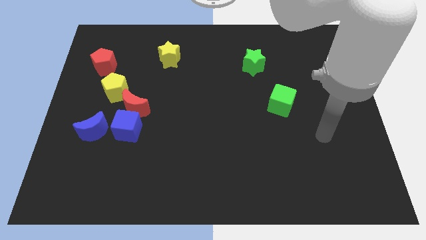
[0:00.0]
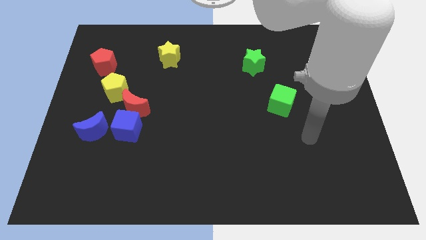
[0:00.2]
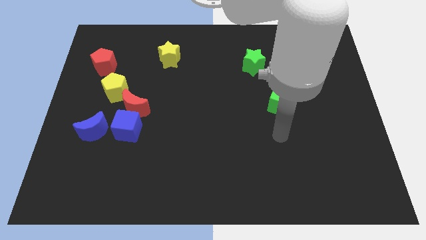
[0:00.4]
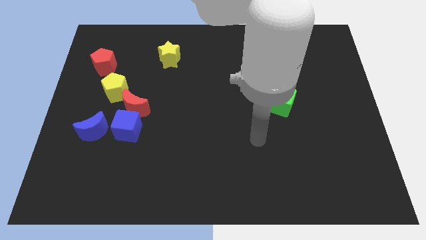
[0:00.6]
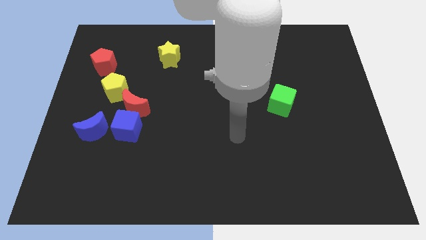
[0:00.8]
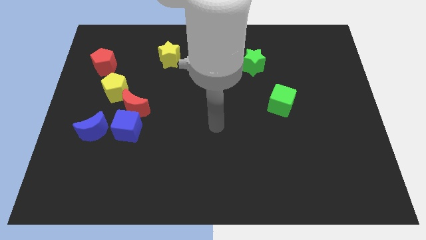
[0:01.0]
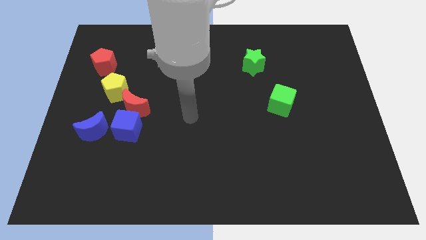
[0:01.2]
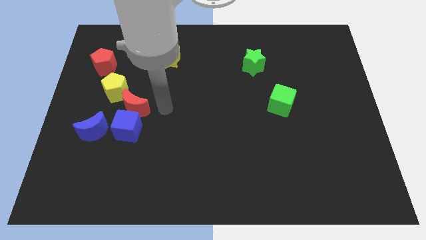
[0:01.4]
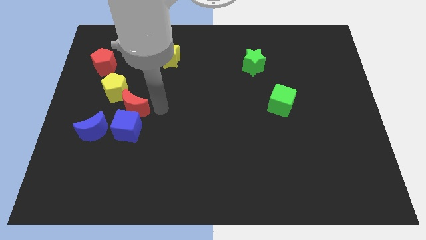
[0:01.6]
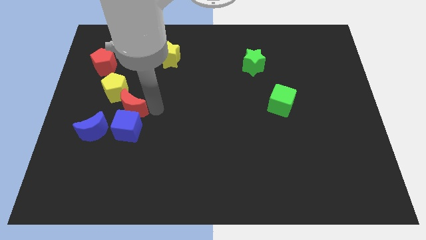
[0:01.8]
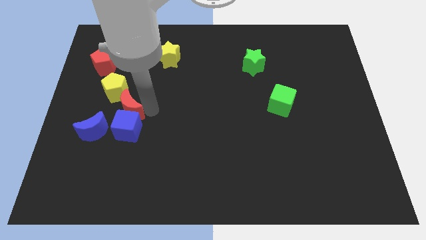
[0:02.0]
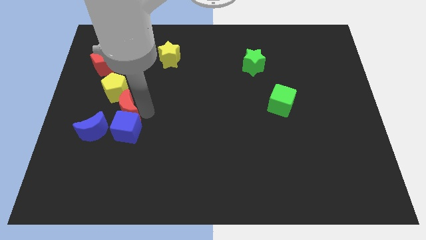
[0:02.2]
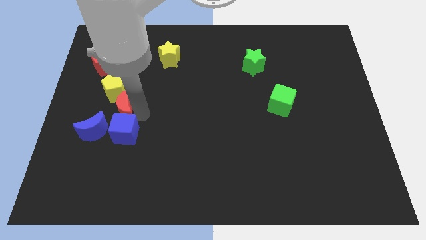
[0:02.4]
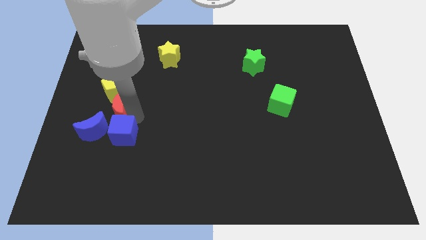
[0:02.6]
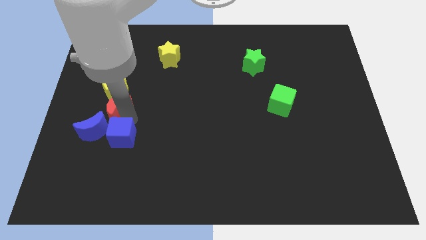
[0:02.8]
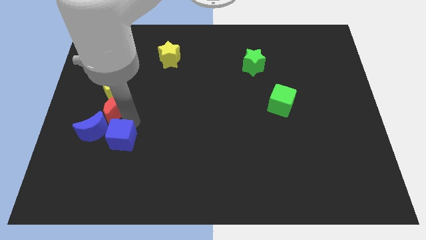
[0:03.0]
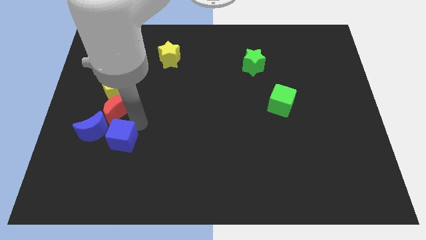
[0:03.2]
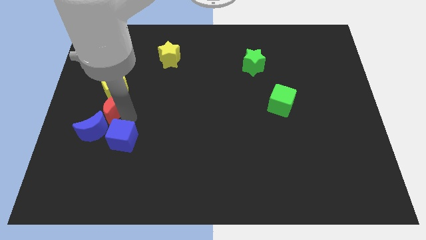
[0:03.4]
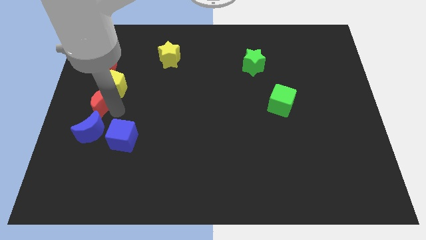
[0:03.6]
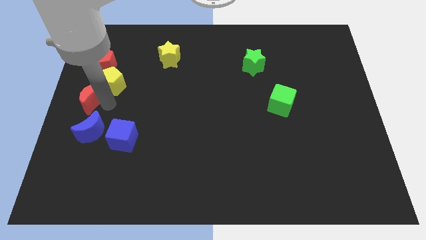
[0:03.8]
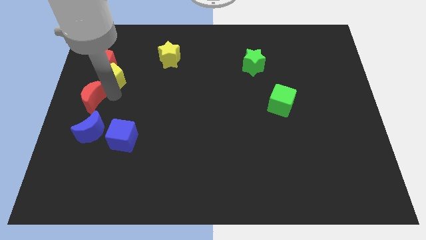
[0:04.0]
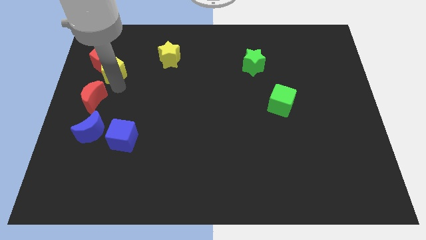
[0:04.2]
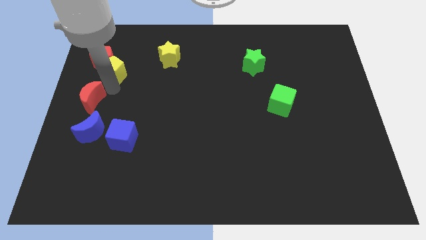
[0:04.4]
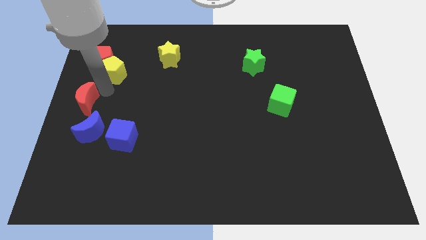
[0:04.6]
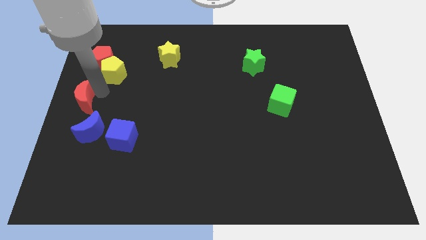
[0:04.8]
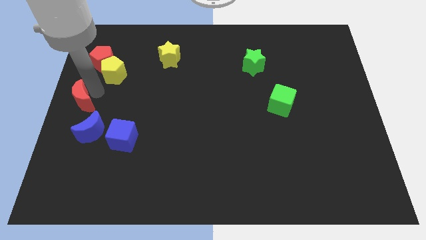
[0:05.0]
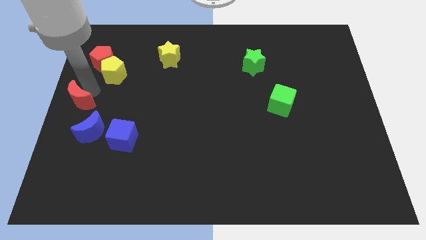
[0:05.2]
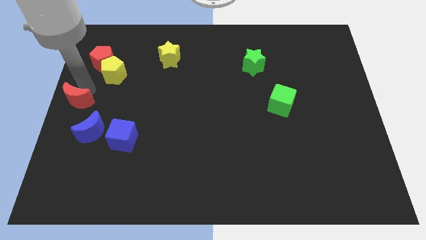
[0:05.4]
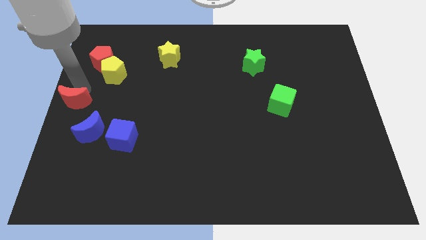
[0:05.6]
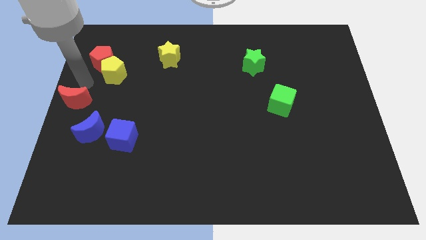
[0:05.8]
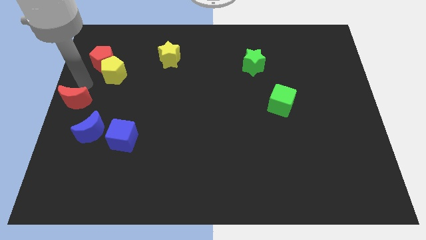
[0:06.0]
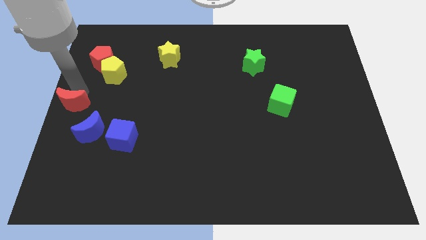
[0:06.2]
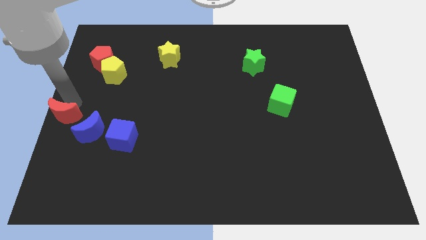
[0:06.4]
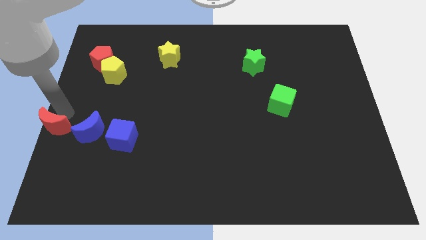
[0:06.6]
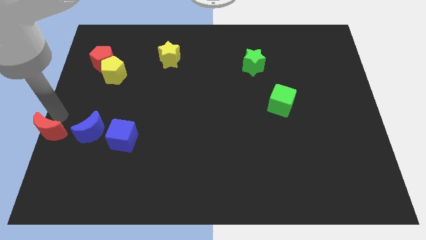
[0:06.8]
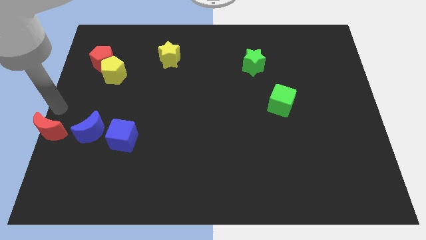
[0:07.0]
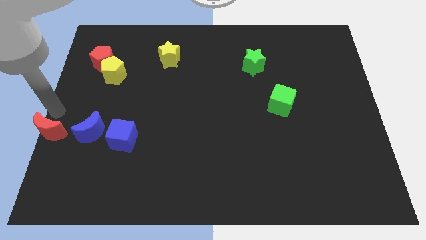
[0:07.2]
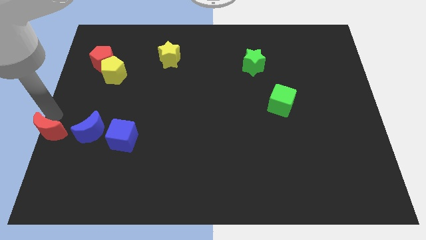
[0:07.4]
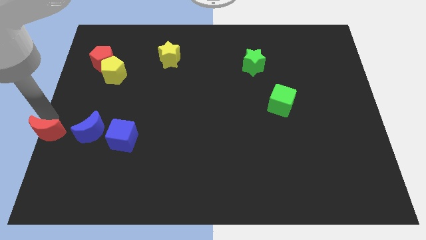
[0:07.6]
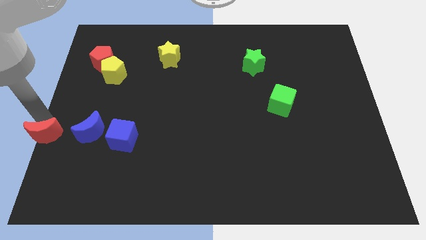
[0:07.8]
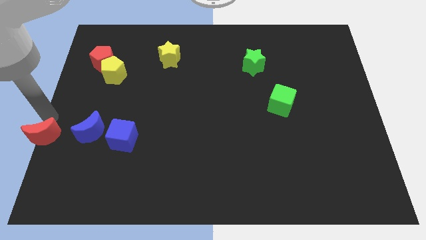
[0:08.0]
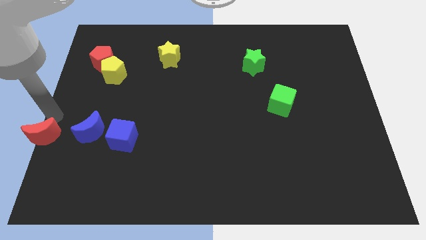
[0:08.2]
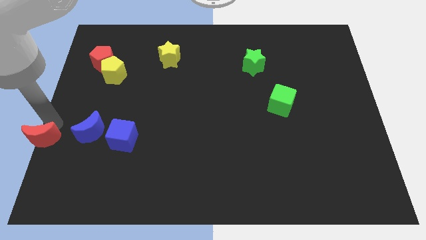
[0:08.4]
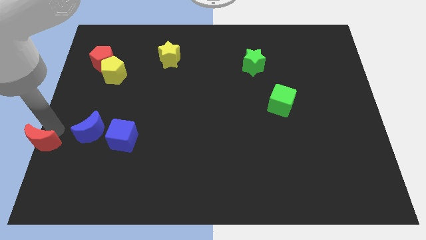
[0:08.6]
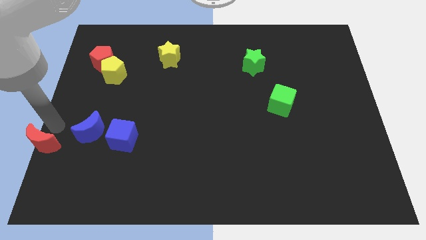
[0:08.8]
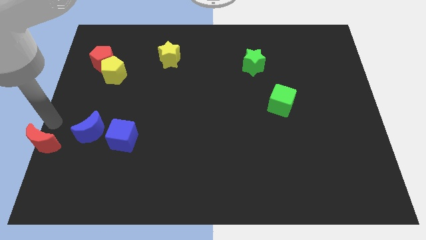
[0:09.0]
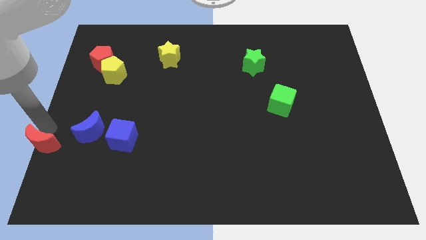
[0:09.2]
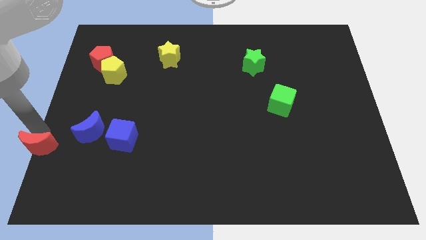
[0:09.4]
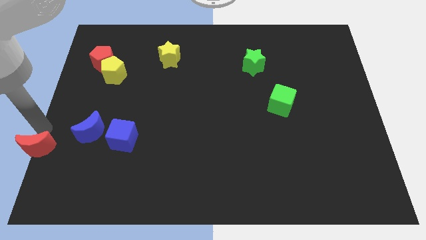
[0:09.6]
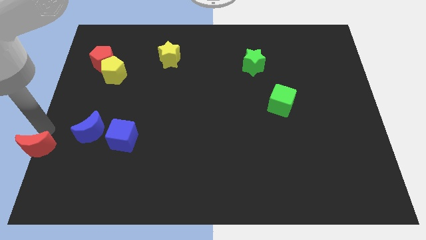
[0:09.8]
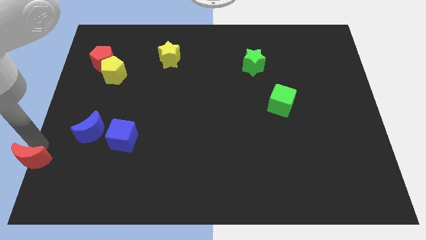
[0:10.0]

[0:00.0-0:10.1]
move the red moon to the bottom left corner

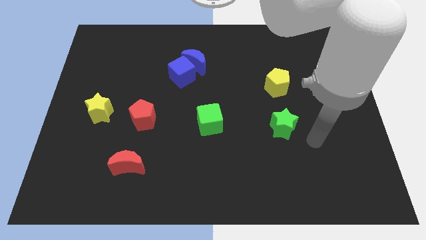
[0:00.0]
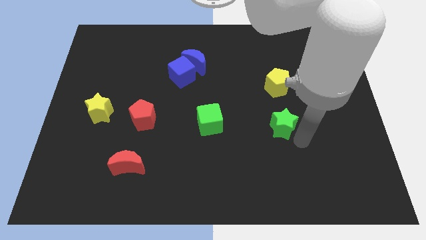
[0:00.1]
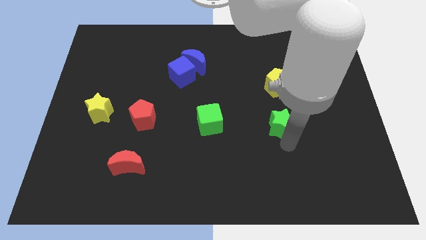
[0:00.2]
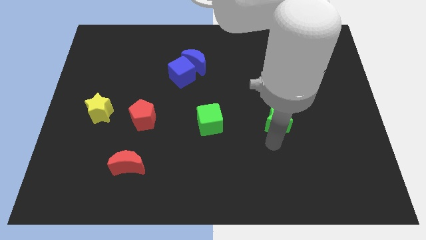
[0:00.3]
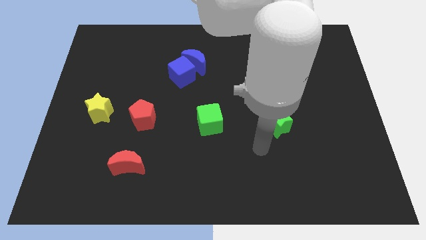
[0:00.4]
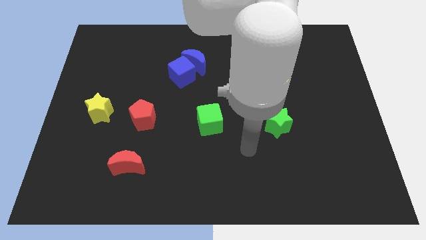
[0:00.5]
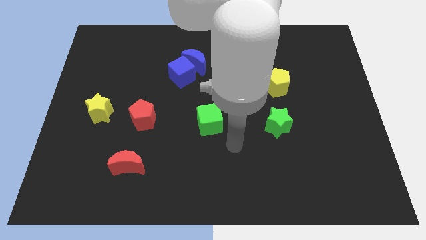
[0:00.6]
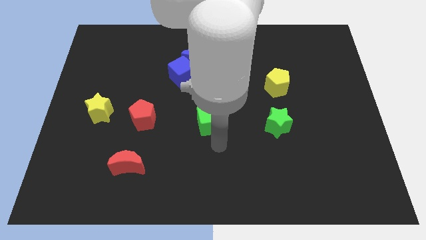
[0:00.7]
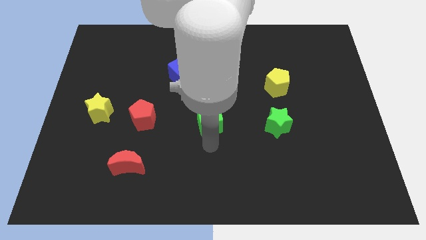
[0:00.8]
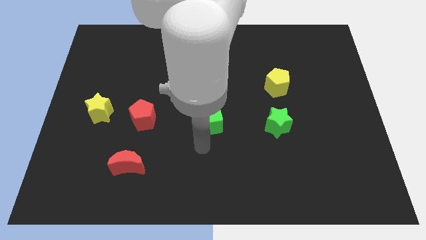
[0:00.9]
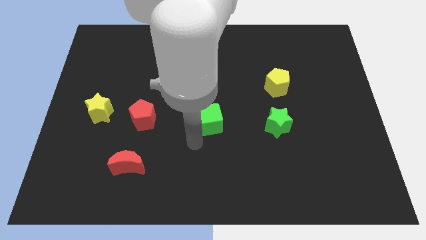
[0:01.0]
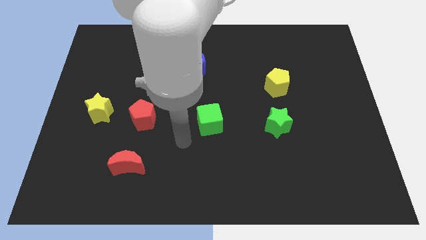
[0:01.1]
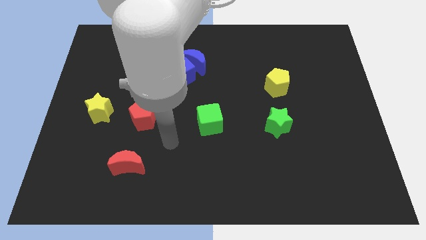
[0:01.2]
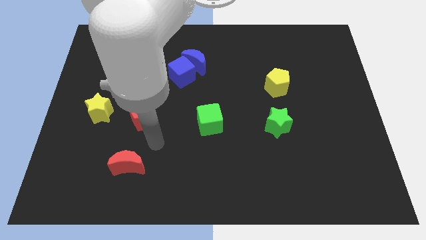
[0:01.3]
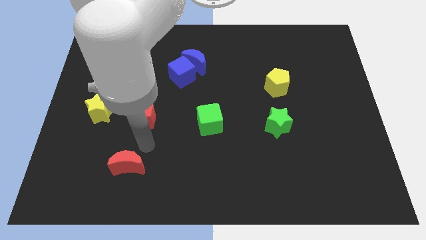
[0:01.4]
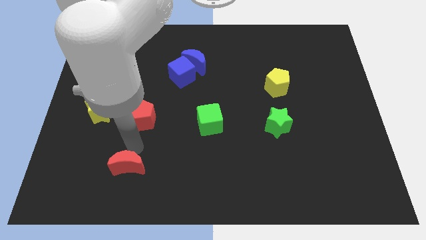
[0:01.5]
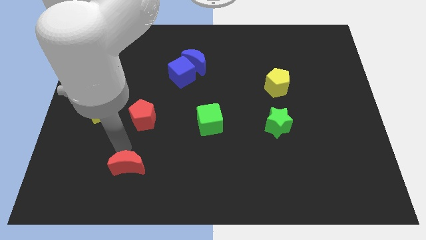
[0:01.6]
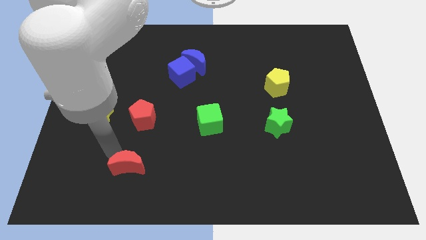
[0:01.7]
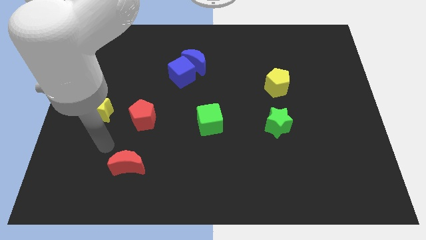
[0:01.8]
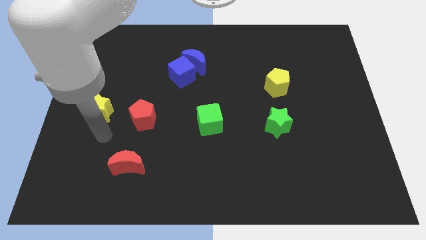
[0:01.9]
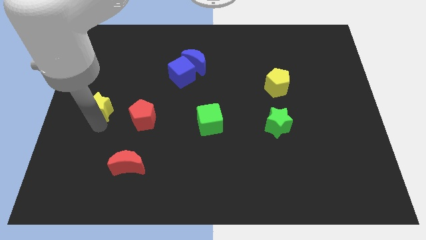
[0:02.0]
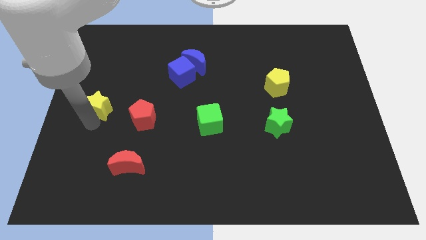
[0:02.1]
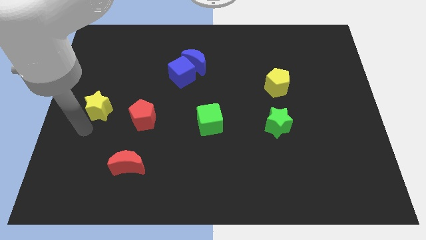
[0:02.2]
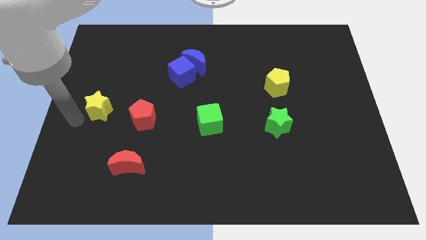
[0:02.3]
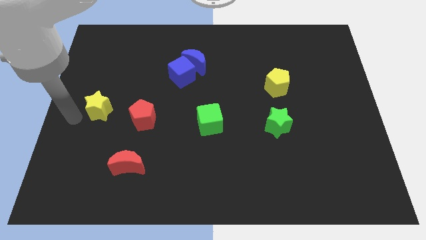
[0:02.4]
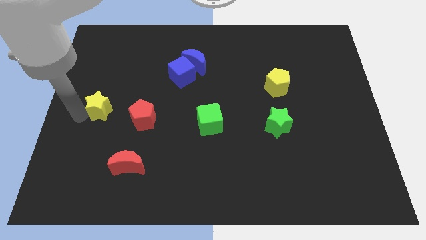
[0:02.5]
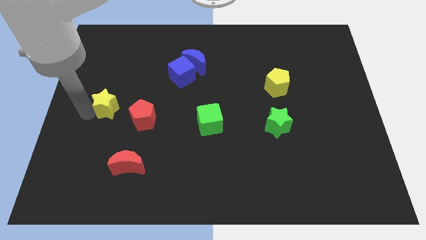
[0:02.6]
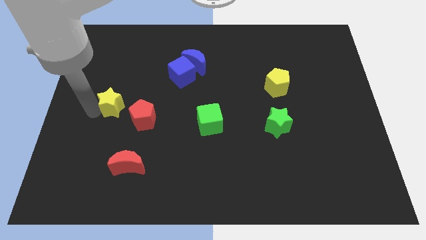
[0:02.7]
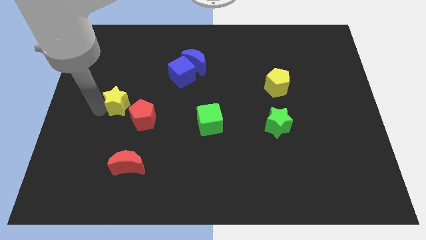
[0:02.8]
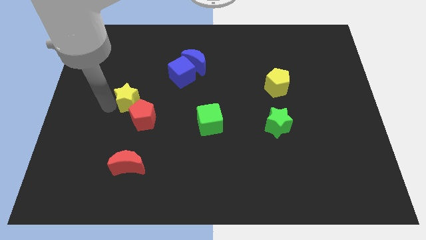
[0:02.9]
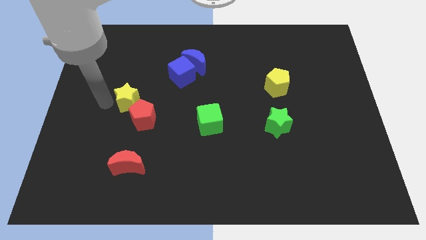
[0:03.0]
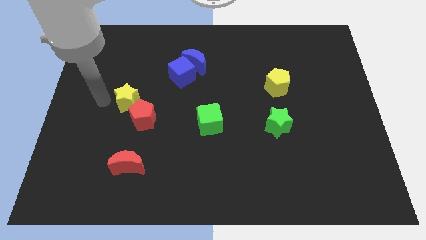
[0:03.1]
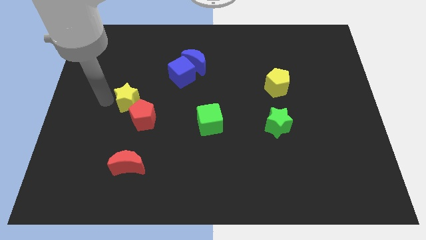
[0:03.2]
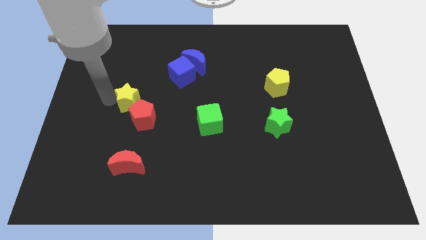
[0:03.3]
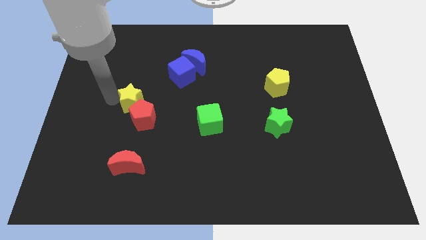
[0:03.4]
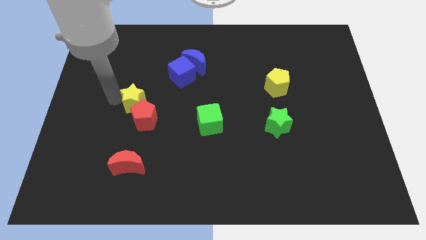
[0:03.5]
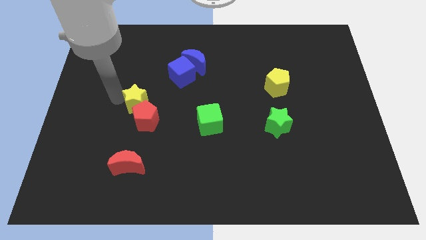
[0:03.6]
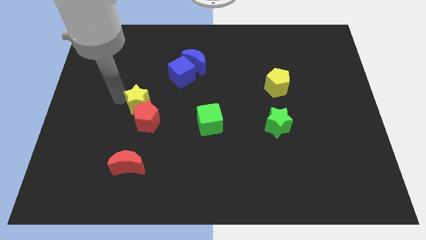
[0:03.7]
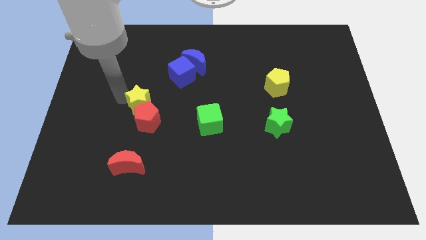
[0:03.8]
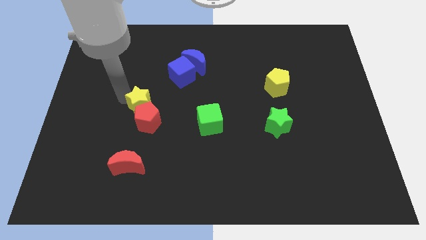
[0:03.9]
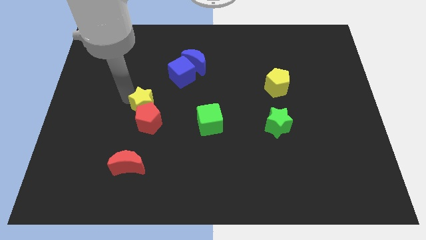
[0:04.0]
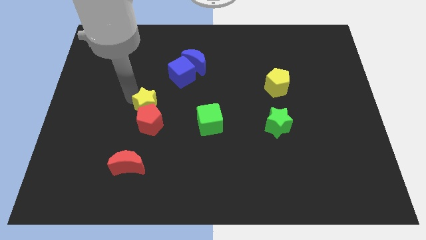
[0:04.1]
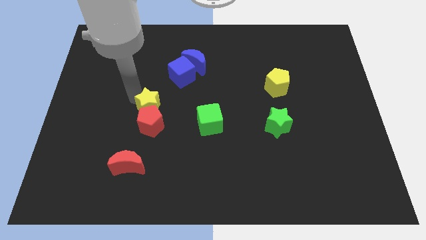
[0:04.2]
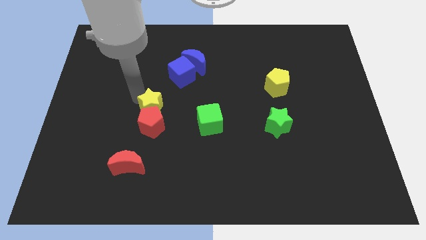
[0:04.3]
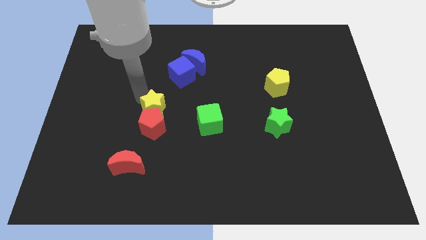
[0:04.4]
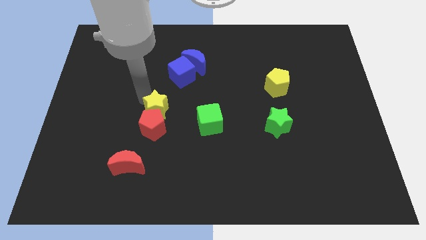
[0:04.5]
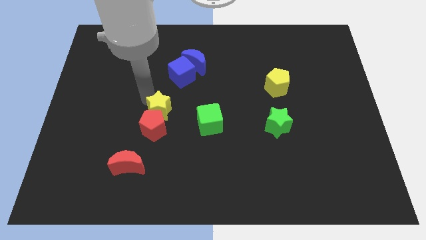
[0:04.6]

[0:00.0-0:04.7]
push the yellow star to the middle of the board
